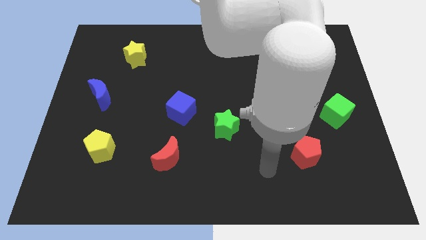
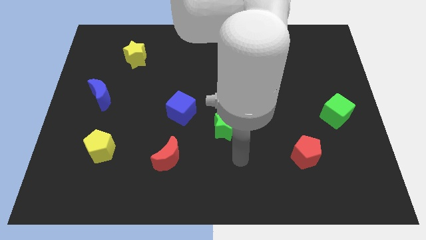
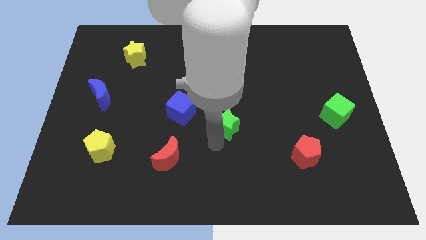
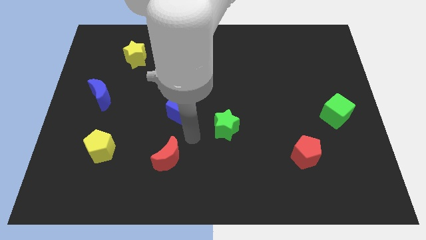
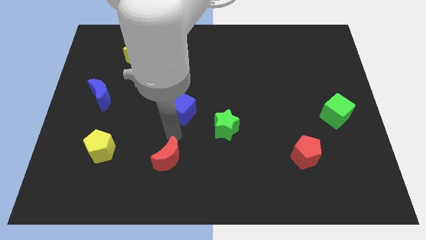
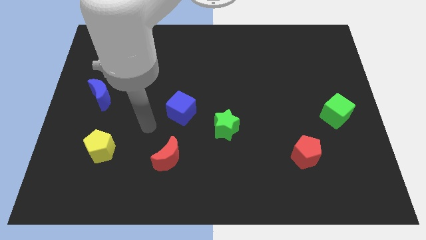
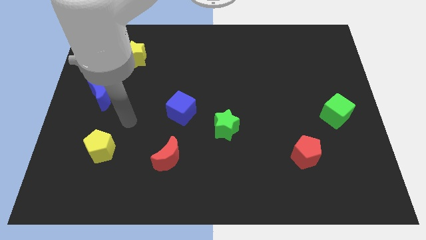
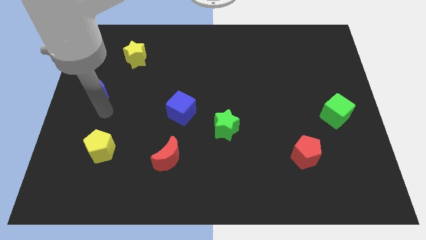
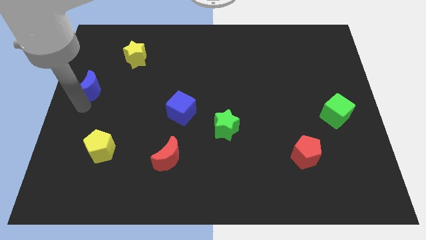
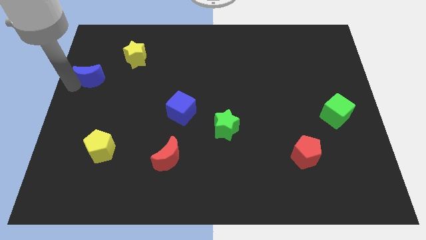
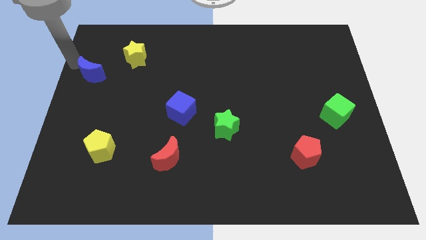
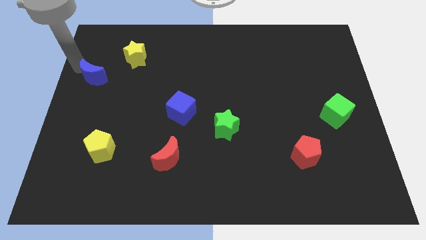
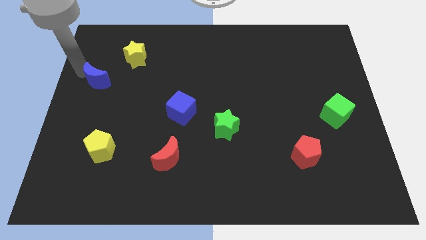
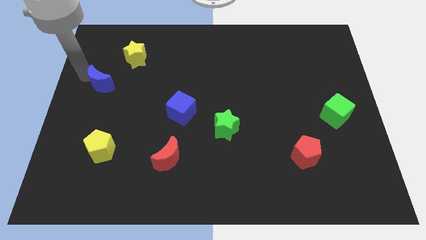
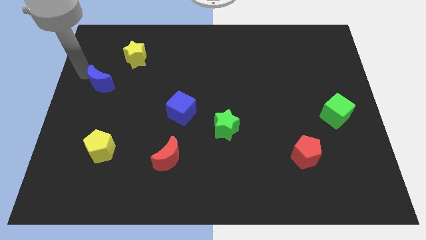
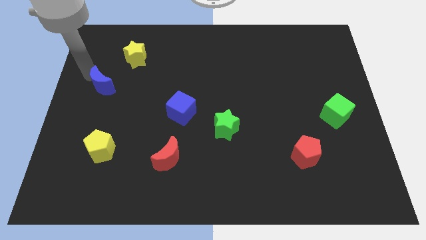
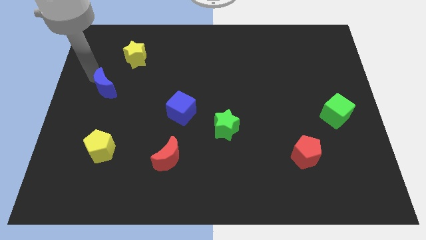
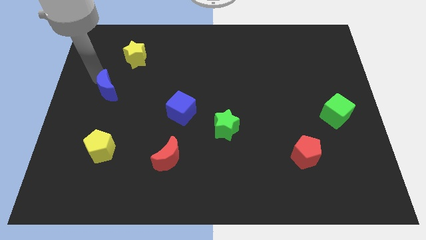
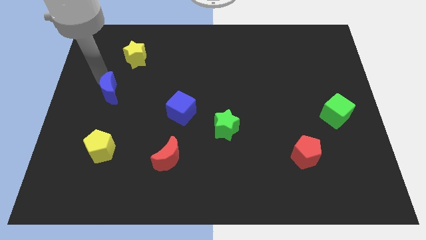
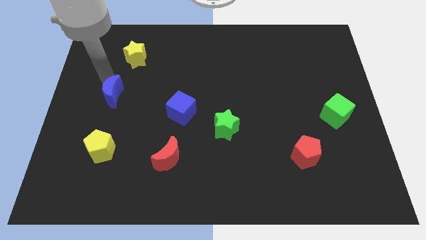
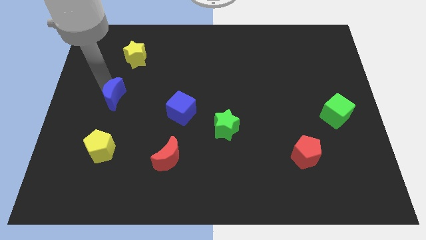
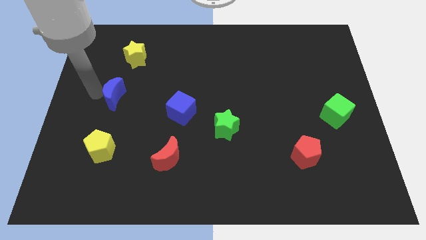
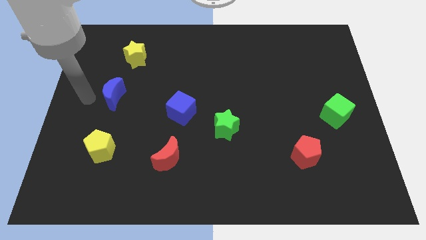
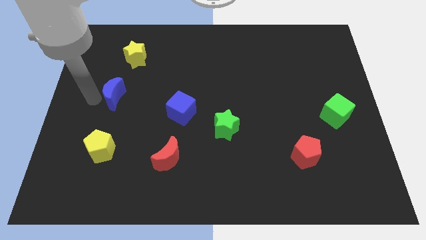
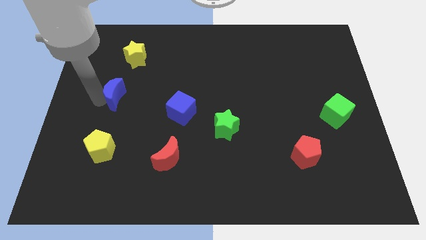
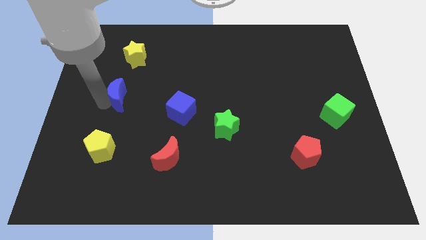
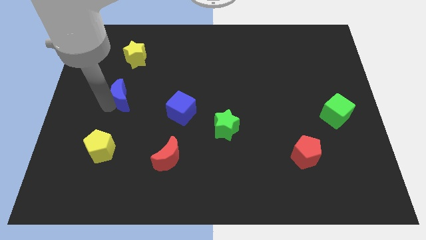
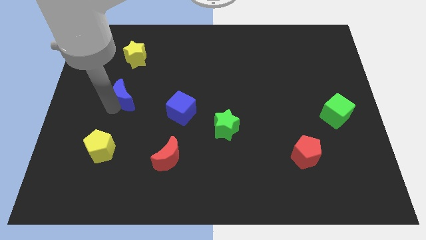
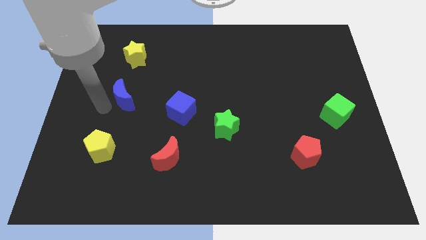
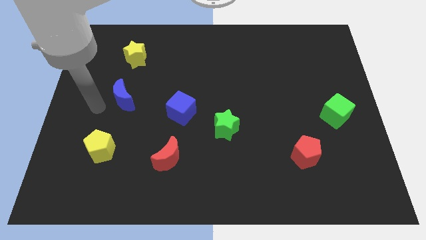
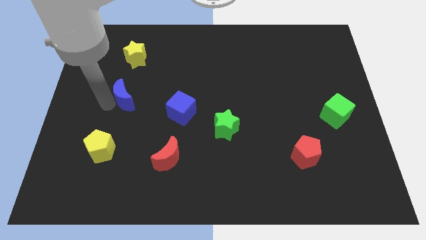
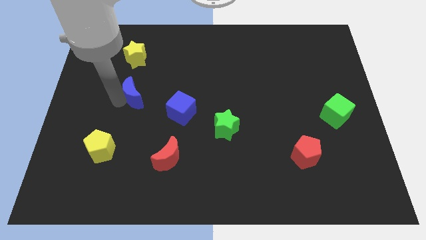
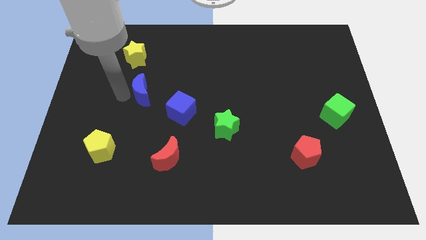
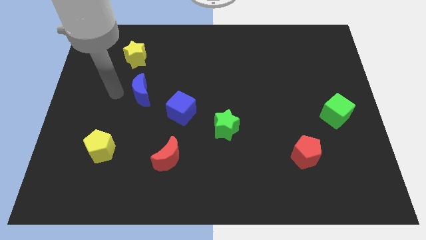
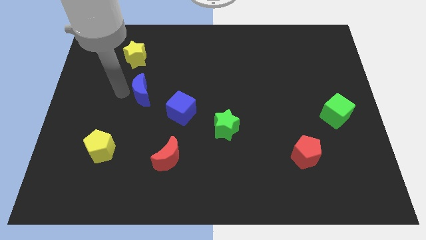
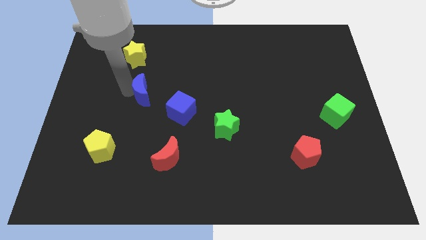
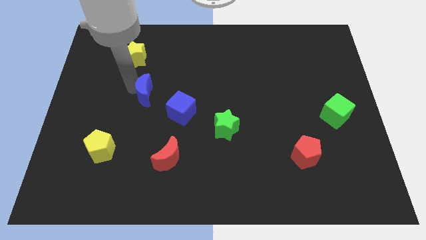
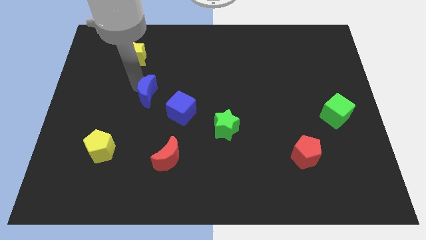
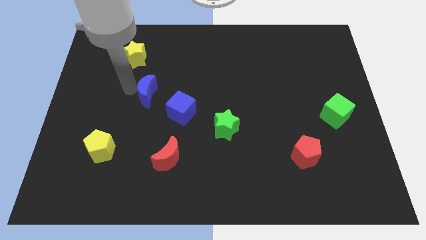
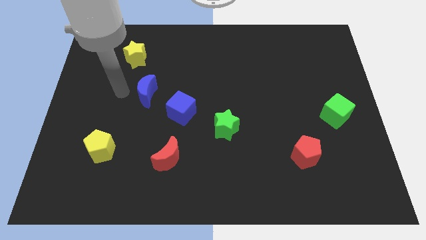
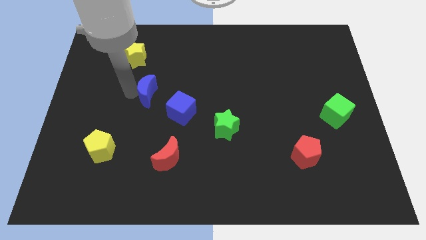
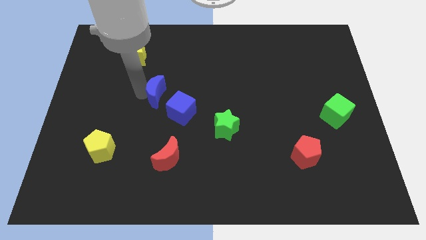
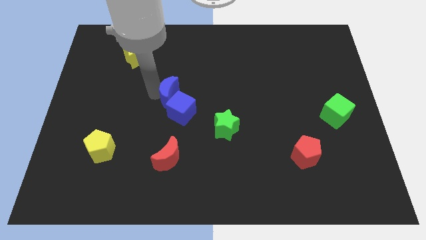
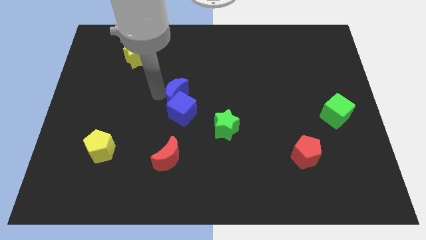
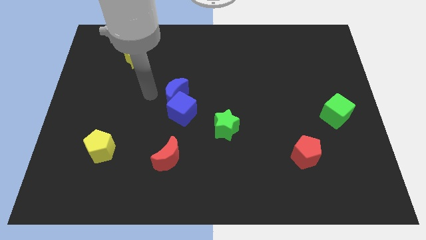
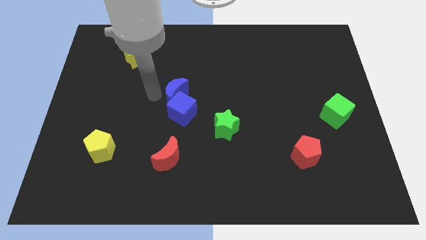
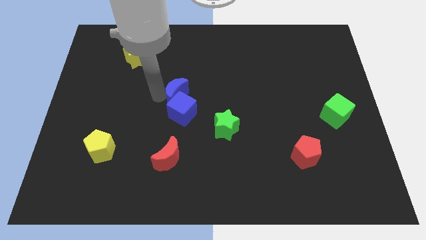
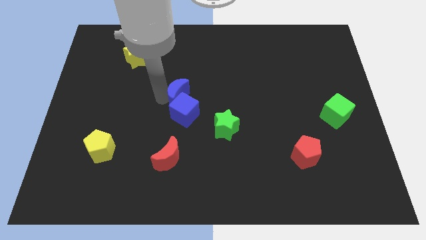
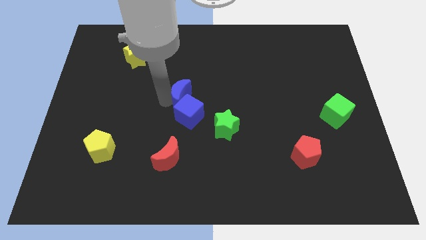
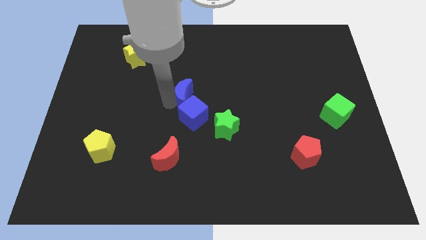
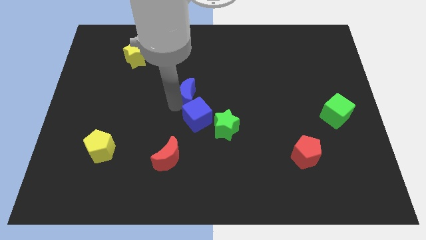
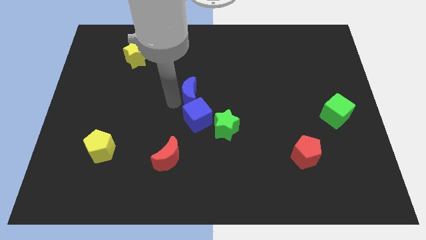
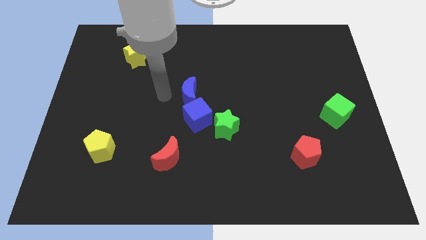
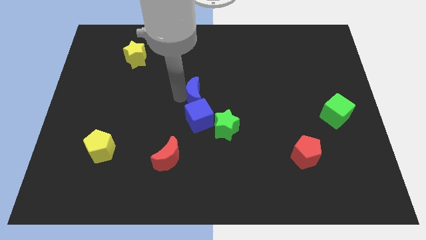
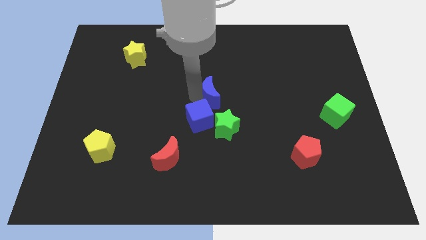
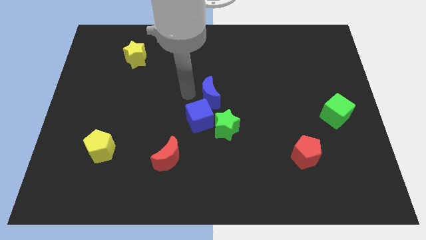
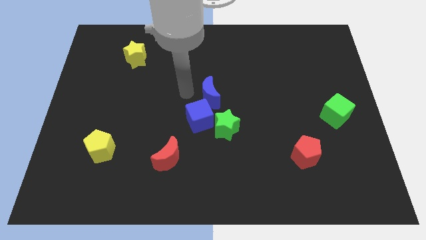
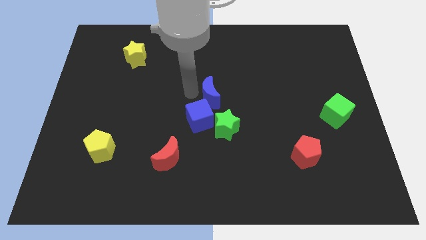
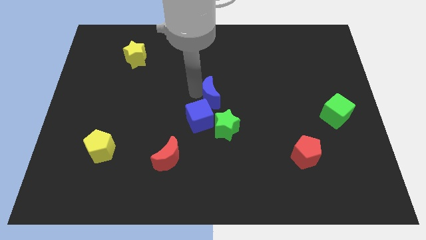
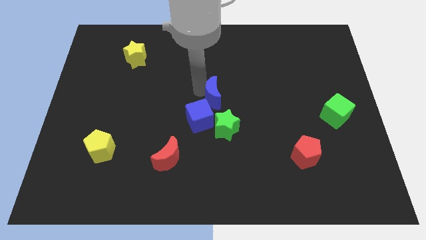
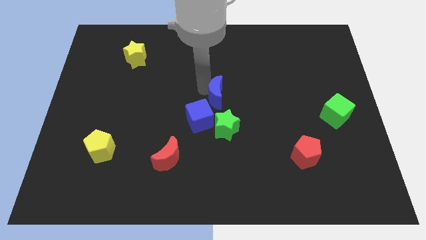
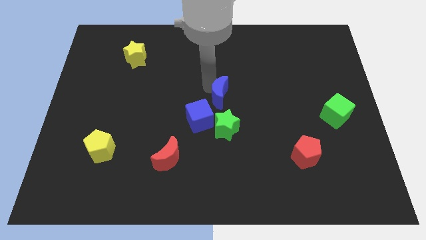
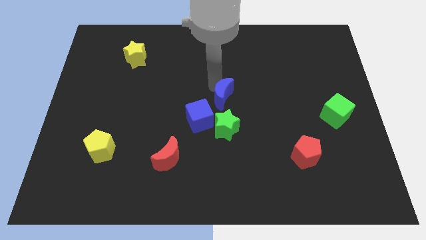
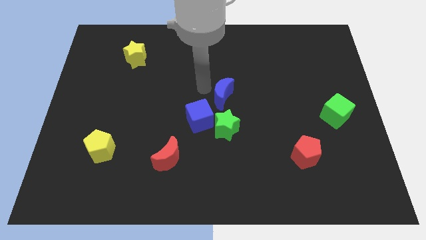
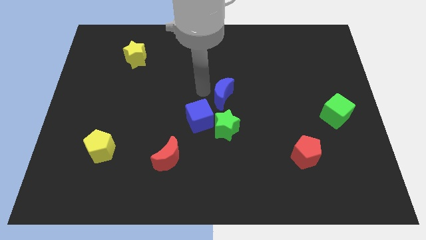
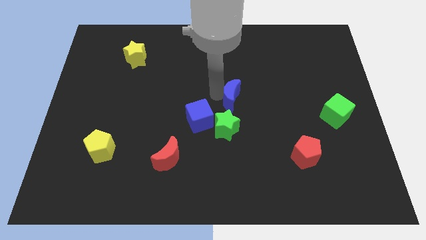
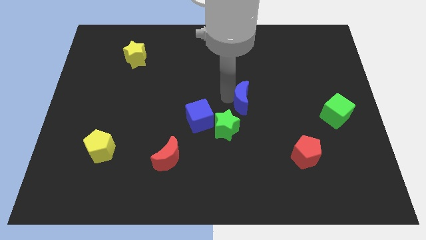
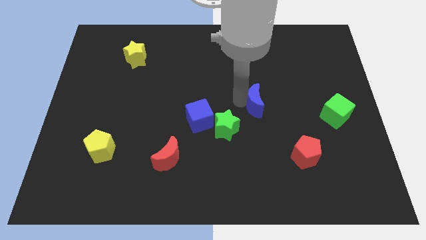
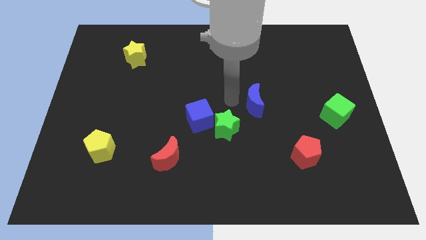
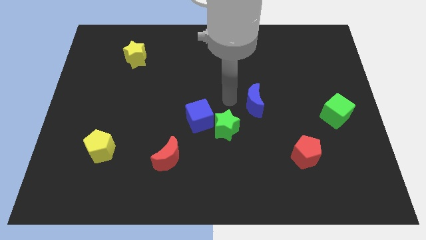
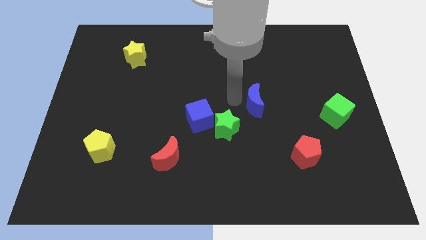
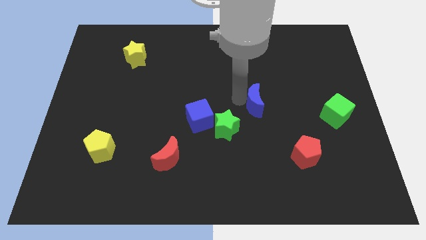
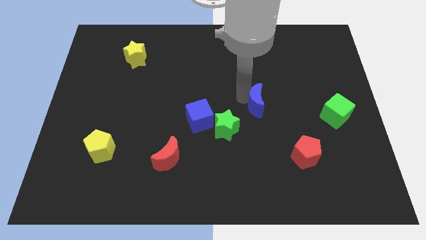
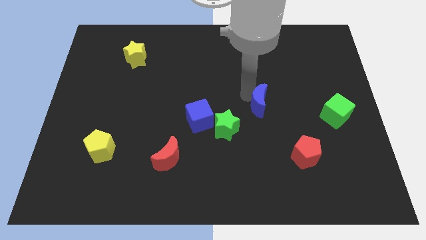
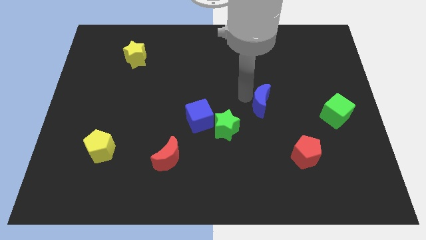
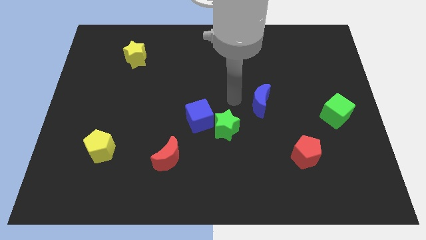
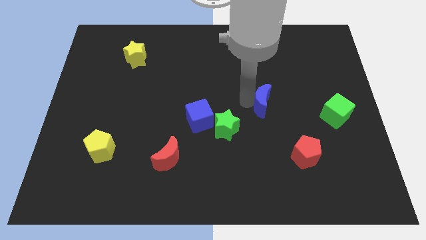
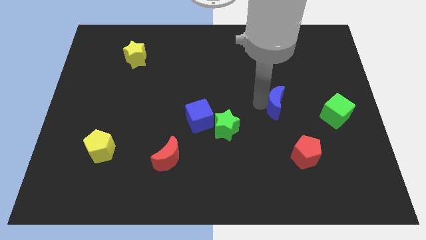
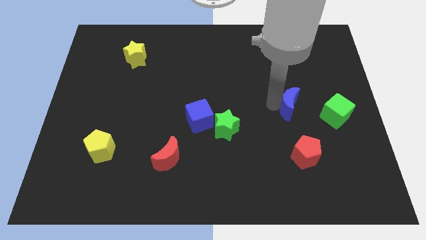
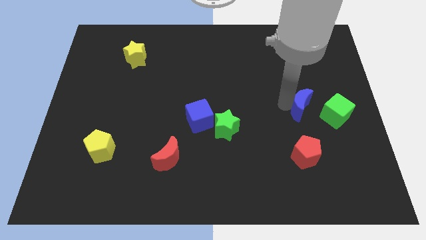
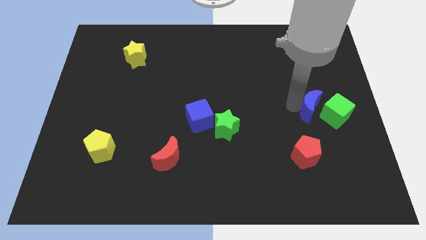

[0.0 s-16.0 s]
put the blue moon to the green cube
